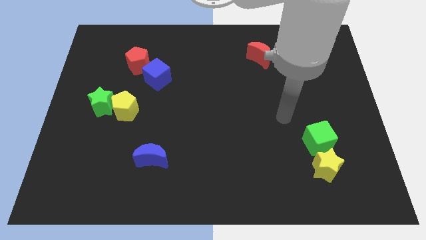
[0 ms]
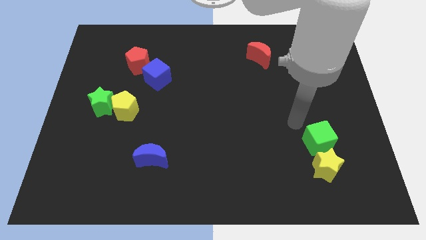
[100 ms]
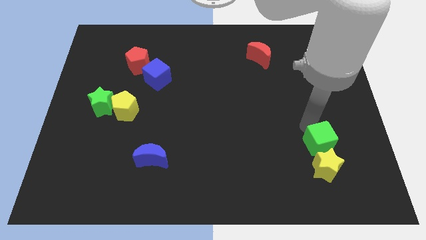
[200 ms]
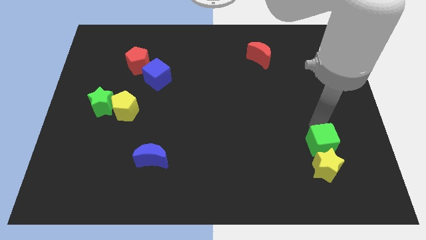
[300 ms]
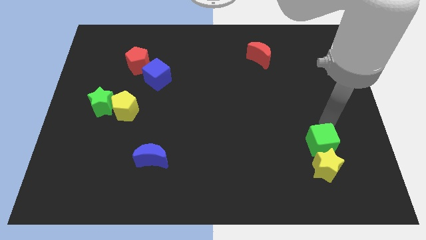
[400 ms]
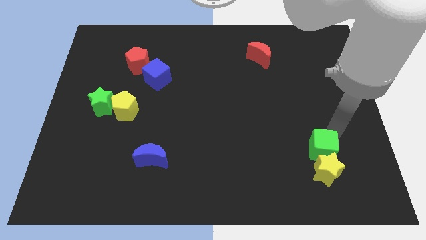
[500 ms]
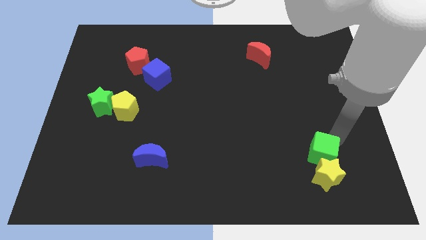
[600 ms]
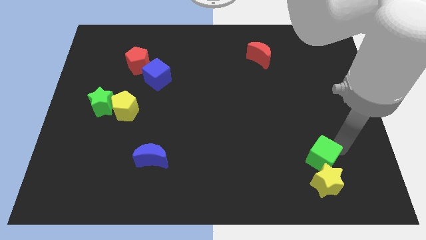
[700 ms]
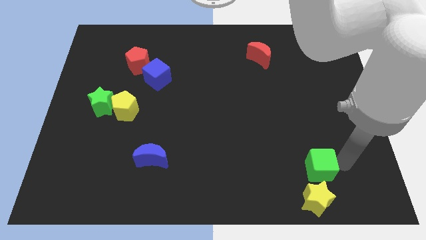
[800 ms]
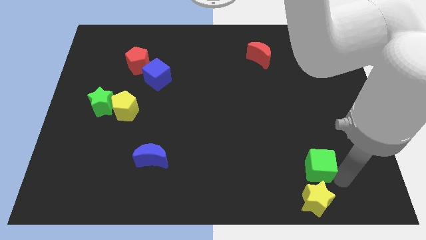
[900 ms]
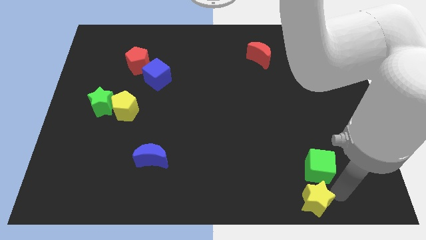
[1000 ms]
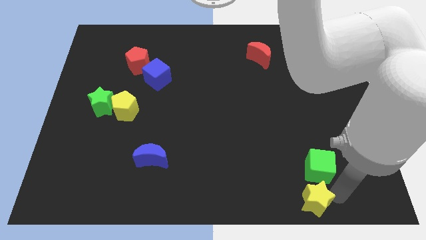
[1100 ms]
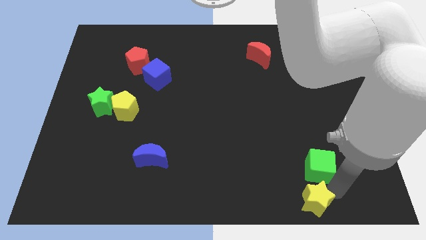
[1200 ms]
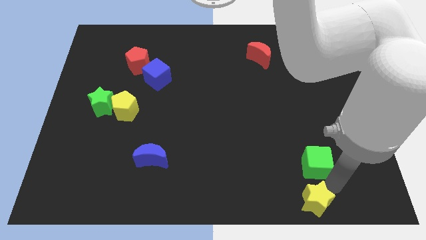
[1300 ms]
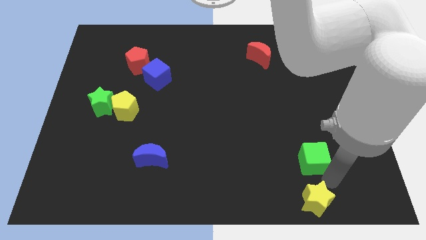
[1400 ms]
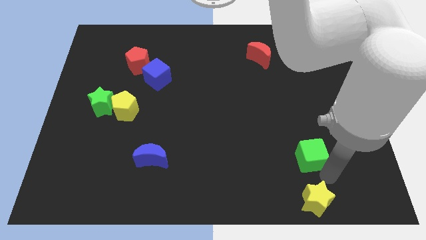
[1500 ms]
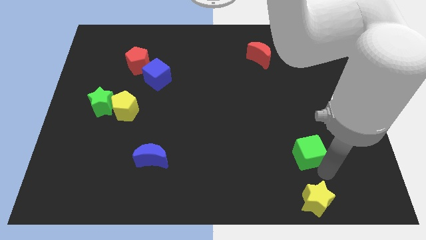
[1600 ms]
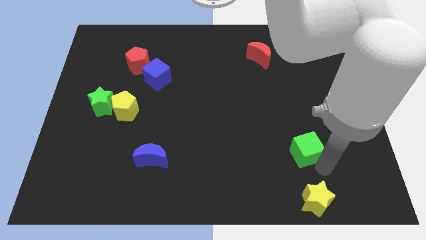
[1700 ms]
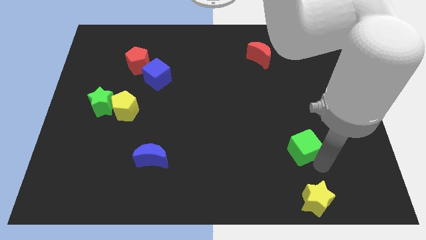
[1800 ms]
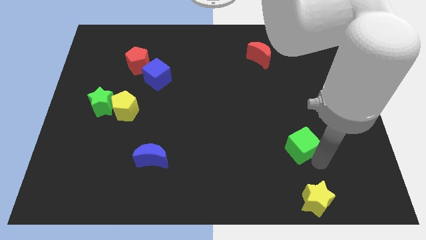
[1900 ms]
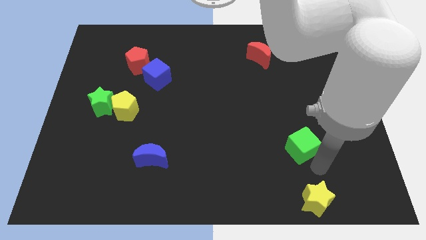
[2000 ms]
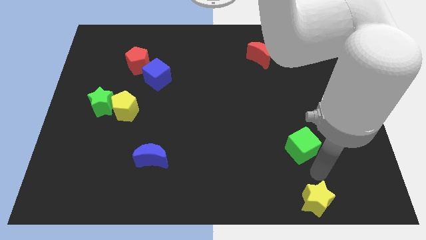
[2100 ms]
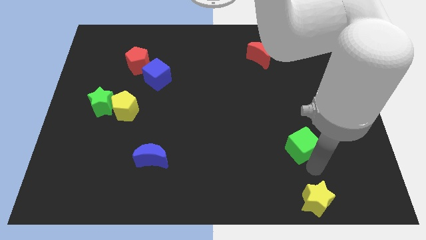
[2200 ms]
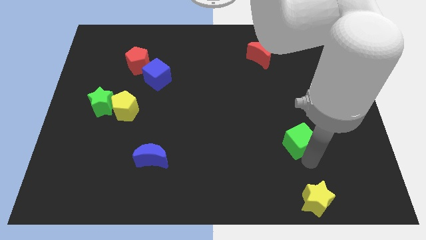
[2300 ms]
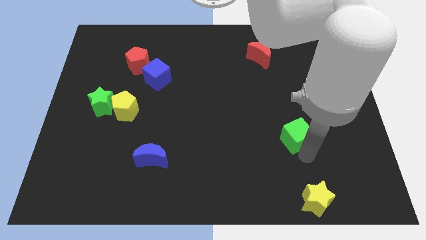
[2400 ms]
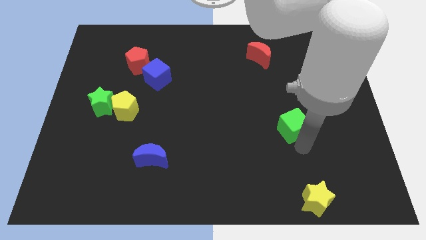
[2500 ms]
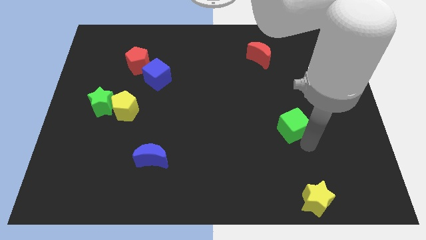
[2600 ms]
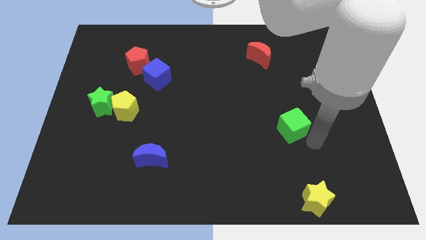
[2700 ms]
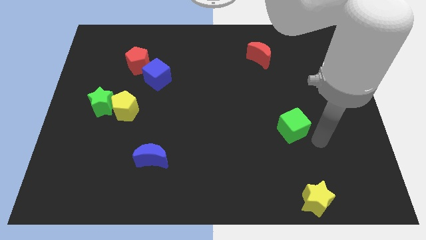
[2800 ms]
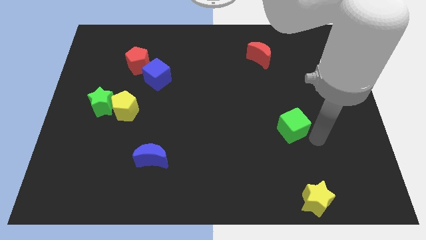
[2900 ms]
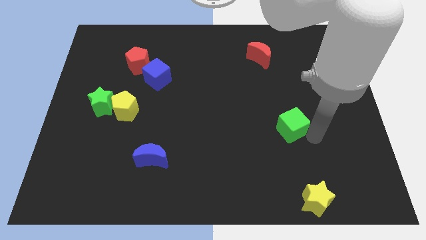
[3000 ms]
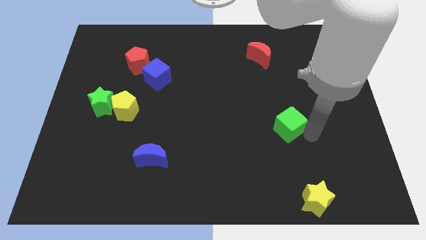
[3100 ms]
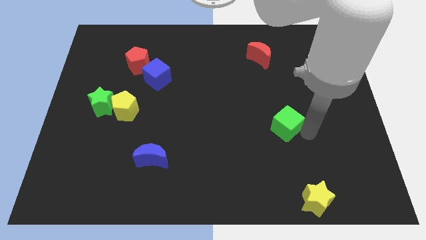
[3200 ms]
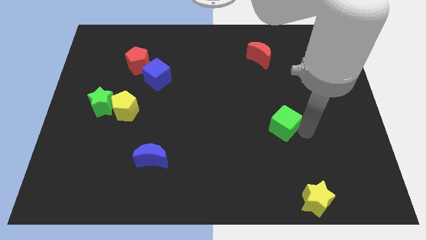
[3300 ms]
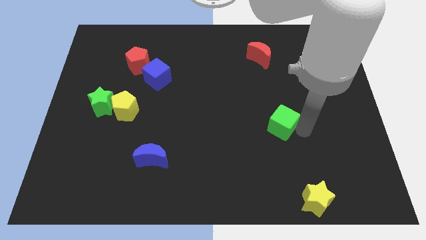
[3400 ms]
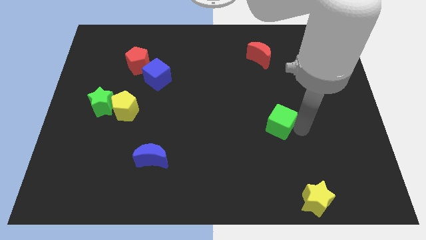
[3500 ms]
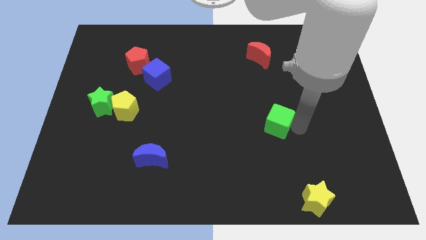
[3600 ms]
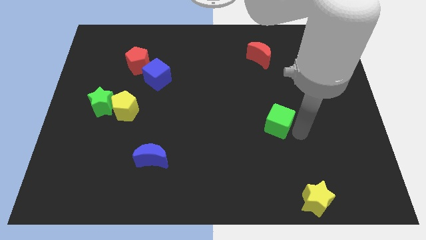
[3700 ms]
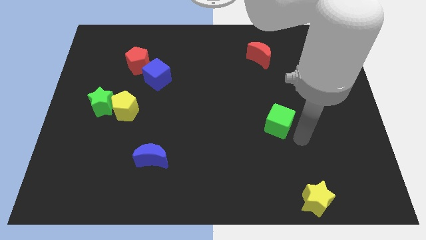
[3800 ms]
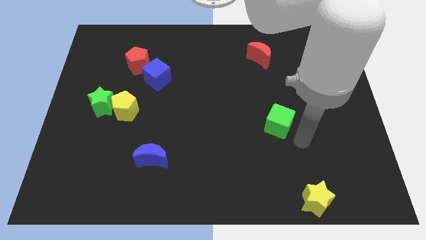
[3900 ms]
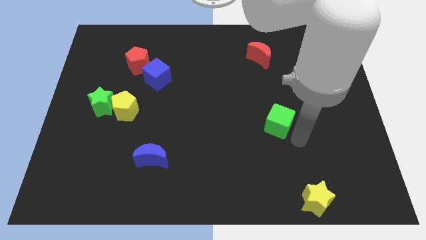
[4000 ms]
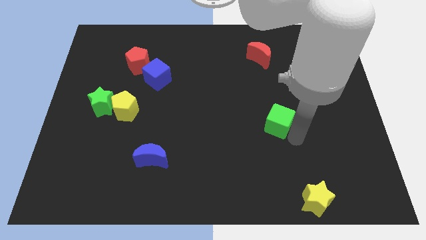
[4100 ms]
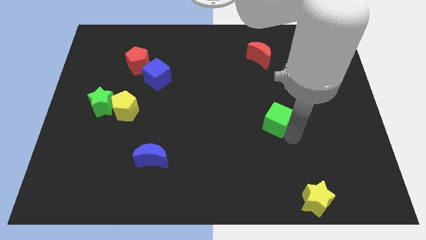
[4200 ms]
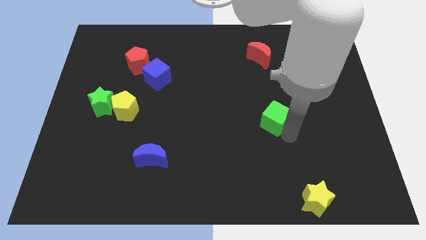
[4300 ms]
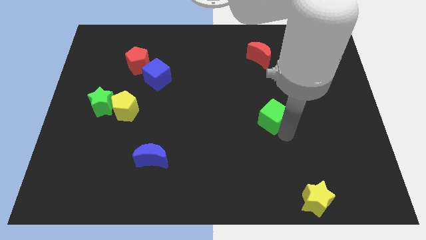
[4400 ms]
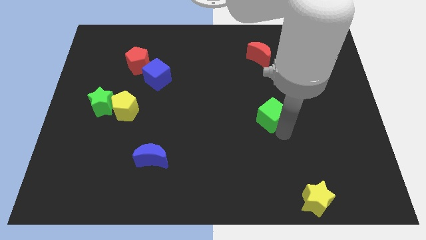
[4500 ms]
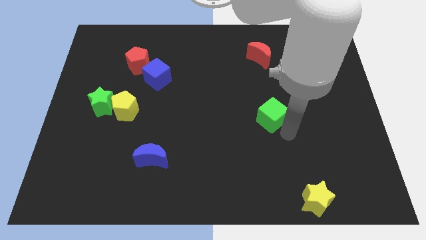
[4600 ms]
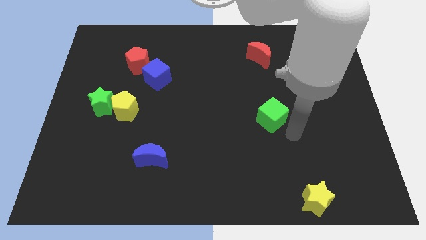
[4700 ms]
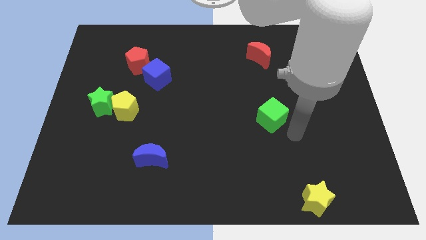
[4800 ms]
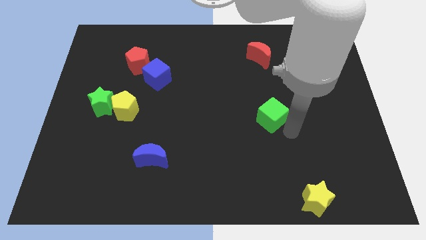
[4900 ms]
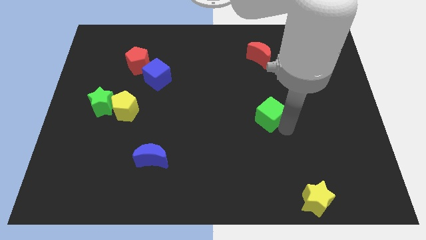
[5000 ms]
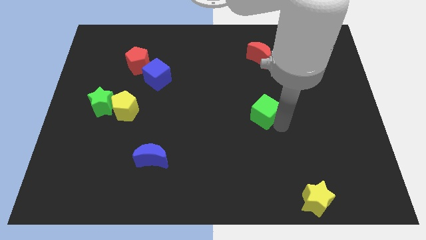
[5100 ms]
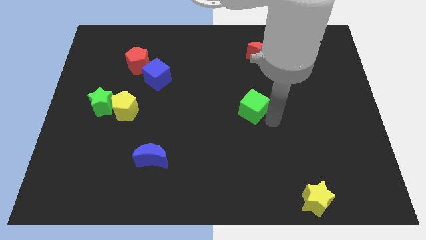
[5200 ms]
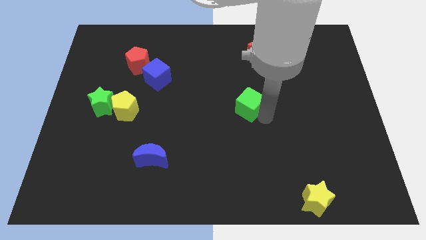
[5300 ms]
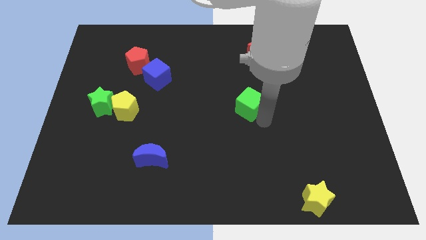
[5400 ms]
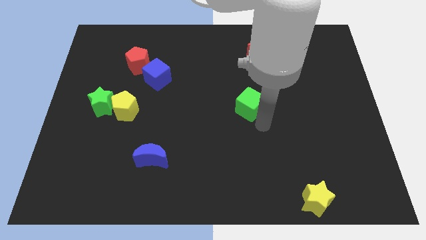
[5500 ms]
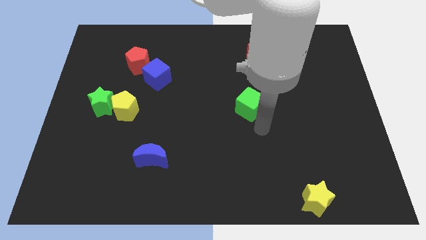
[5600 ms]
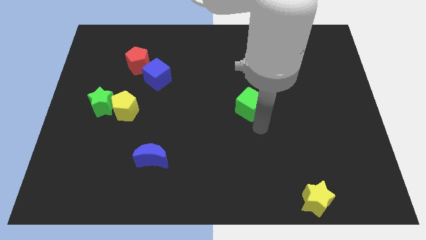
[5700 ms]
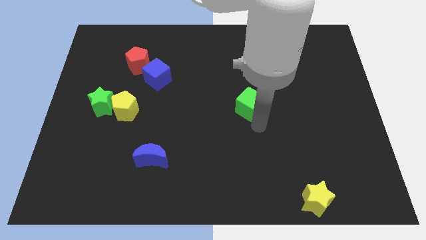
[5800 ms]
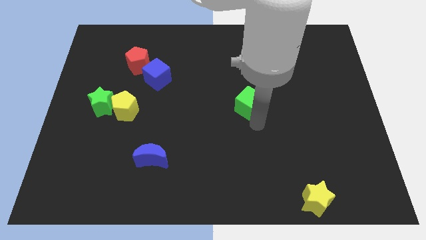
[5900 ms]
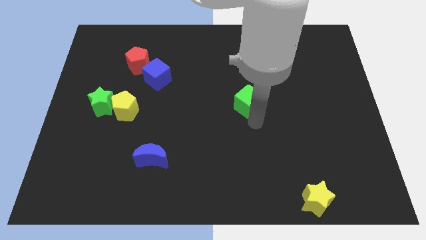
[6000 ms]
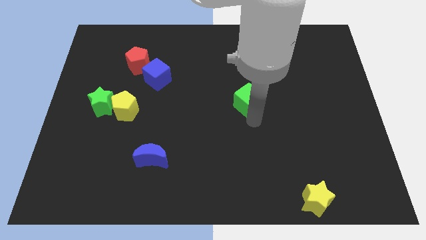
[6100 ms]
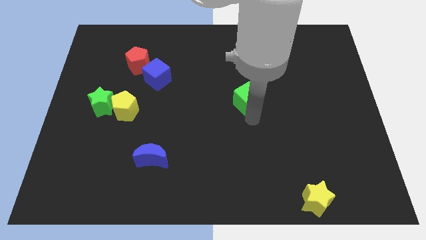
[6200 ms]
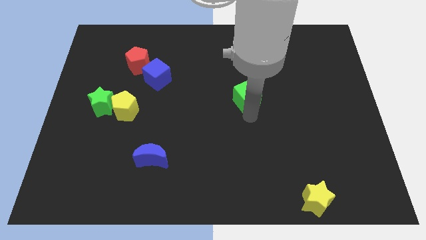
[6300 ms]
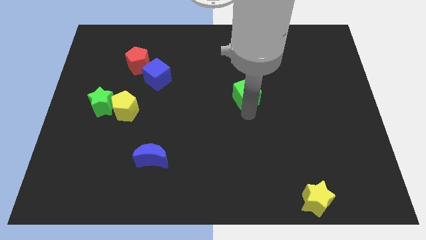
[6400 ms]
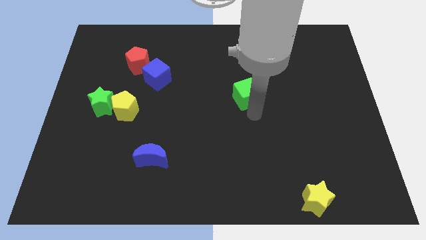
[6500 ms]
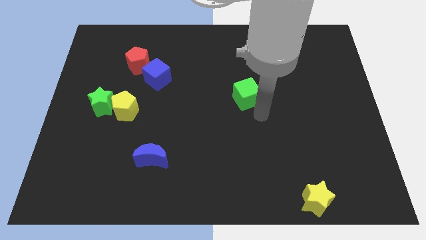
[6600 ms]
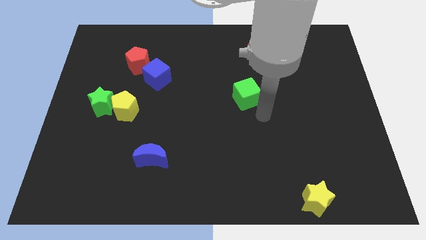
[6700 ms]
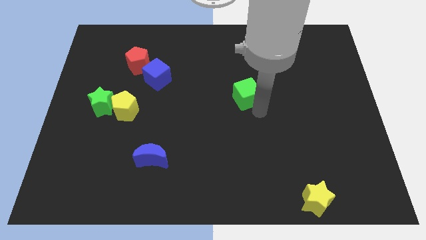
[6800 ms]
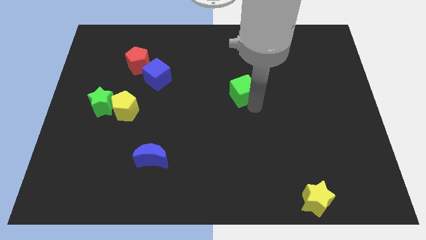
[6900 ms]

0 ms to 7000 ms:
push the green cube up and left diagonally

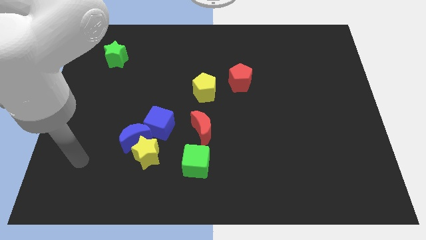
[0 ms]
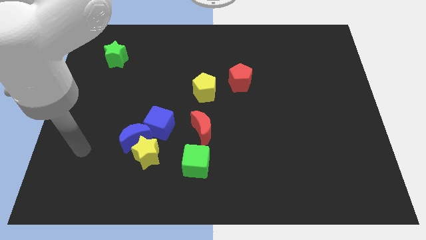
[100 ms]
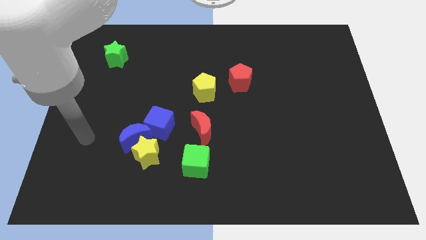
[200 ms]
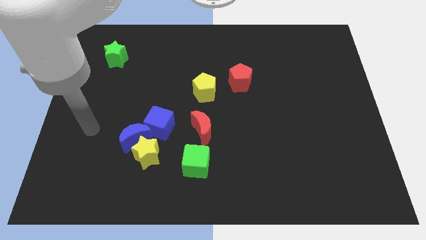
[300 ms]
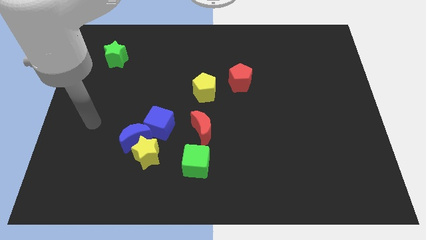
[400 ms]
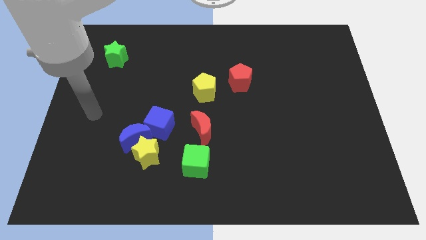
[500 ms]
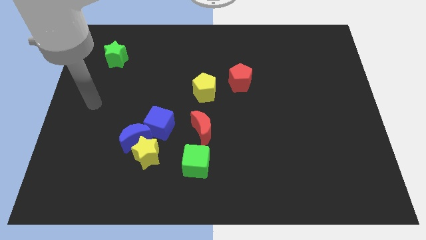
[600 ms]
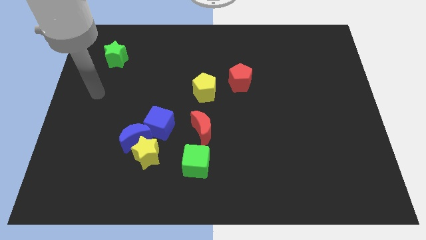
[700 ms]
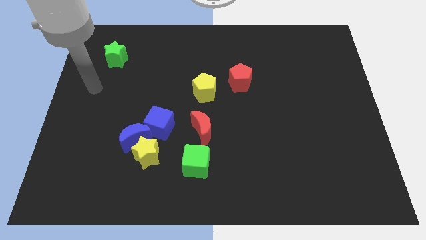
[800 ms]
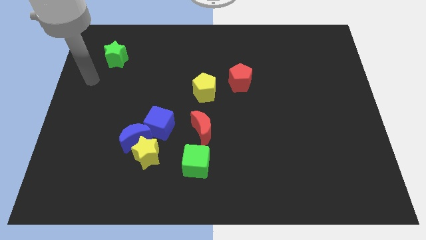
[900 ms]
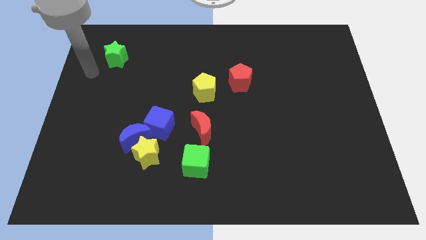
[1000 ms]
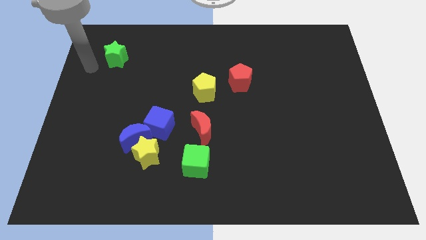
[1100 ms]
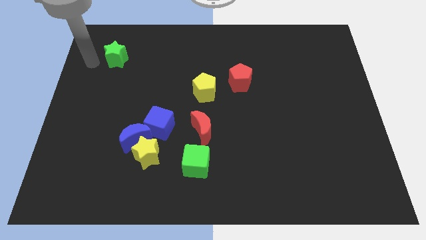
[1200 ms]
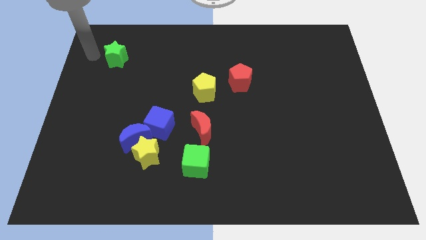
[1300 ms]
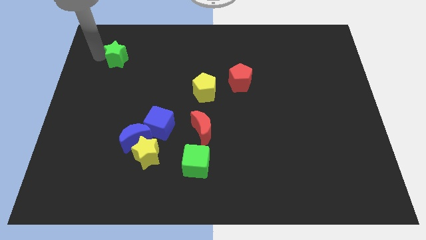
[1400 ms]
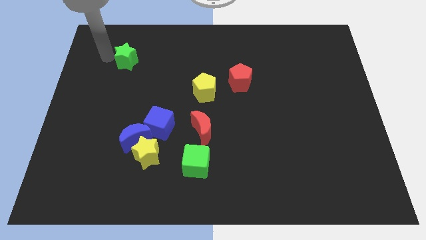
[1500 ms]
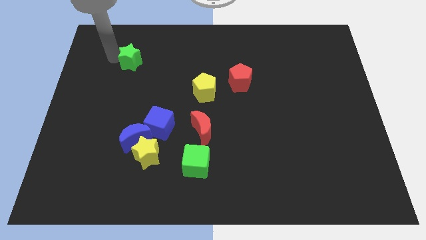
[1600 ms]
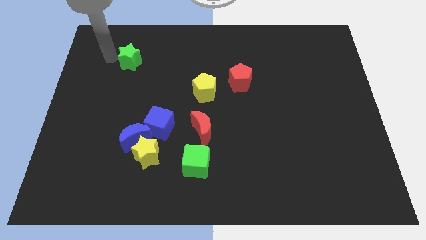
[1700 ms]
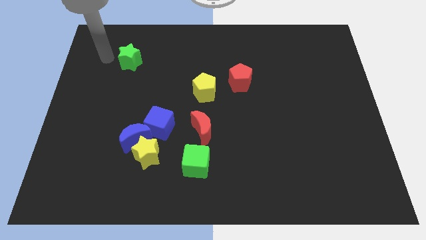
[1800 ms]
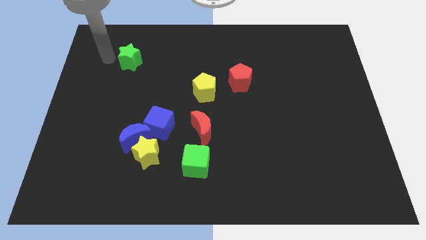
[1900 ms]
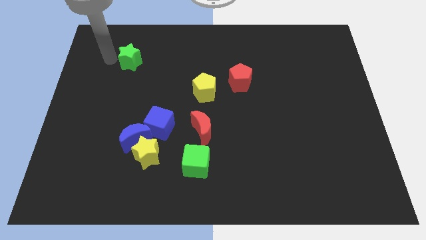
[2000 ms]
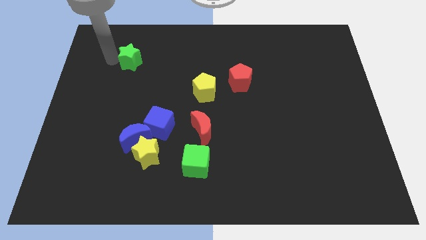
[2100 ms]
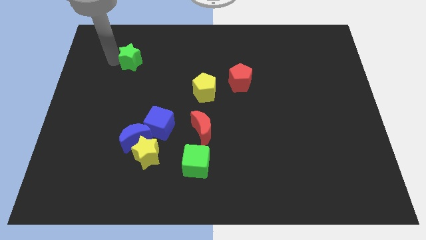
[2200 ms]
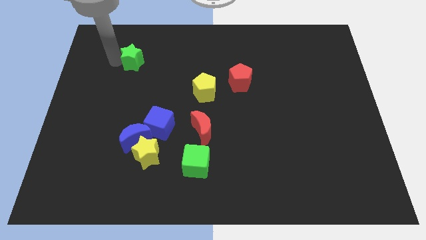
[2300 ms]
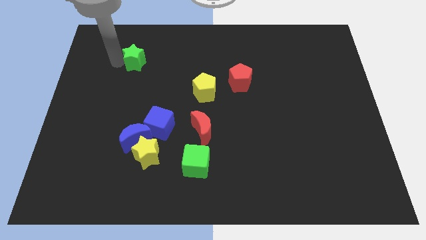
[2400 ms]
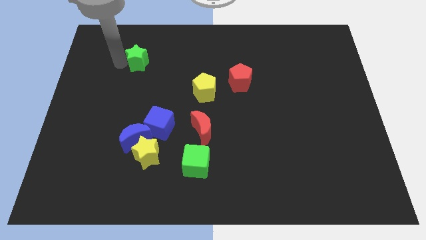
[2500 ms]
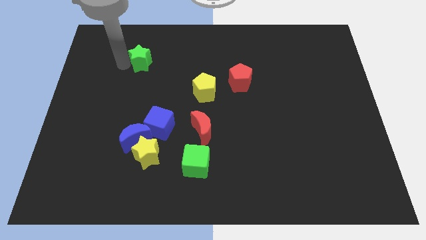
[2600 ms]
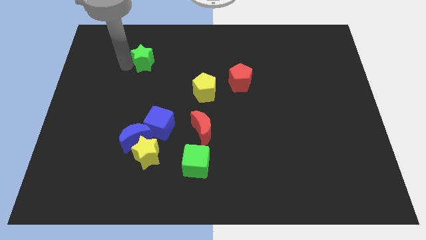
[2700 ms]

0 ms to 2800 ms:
slightly move the green star to the right
